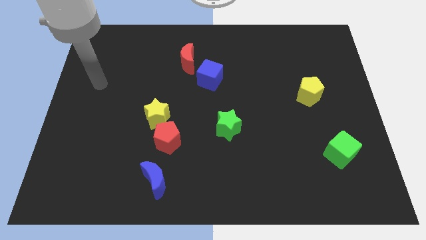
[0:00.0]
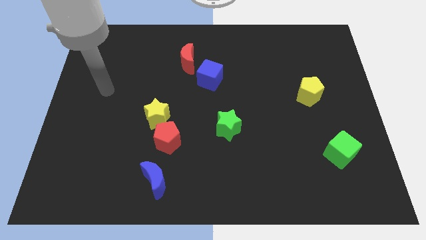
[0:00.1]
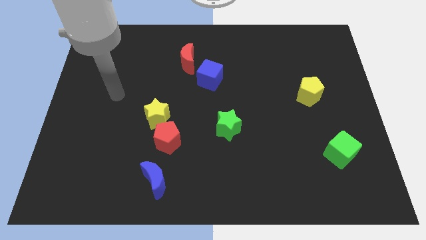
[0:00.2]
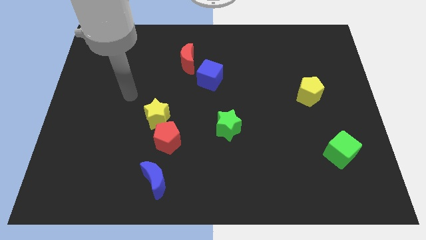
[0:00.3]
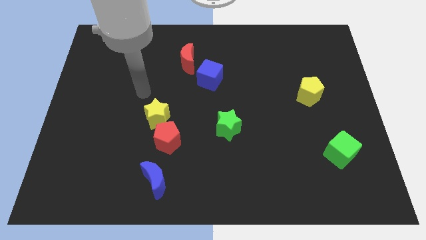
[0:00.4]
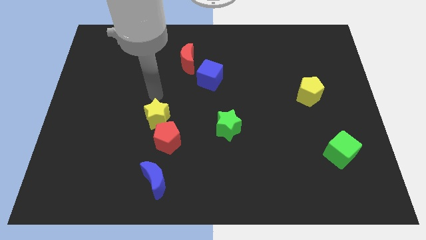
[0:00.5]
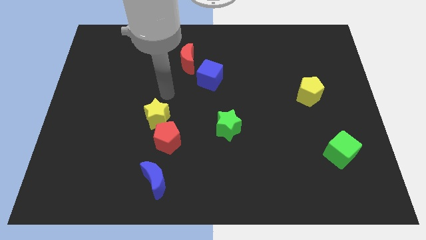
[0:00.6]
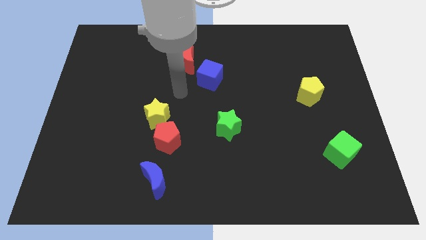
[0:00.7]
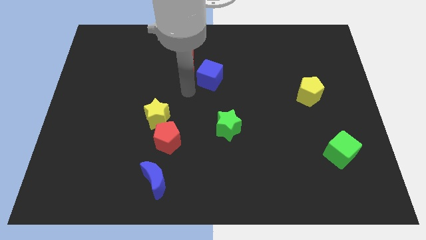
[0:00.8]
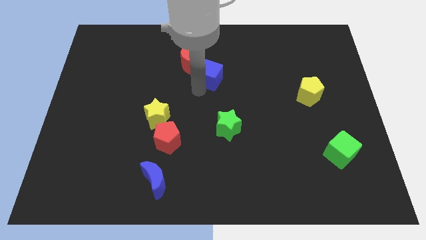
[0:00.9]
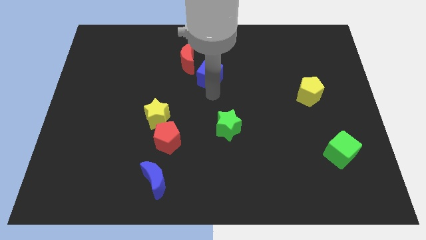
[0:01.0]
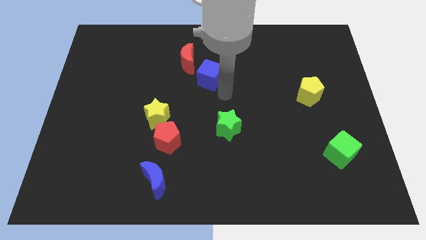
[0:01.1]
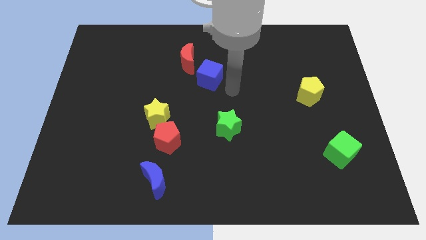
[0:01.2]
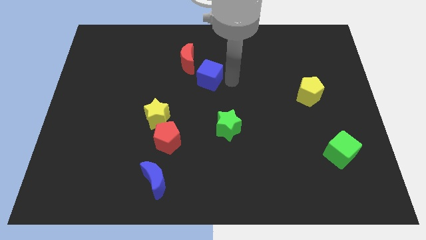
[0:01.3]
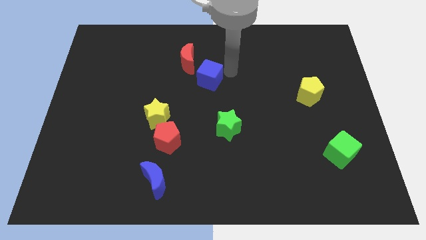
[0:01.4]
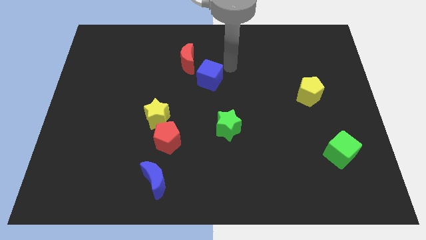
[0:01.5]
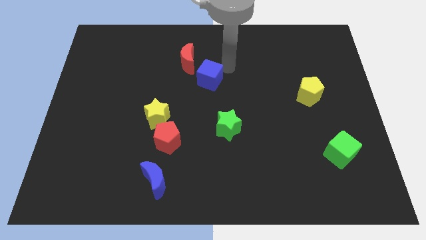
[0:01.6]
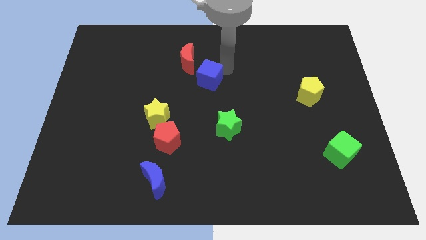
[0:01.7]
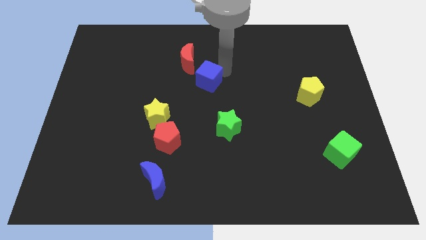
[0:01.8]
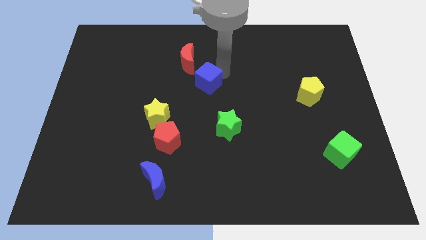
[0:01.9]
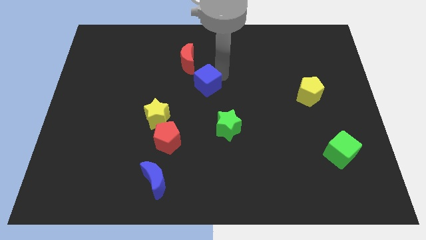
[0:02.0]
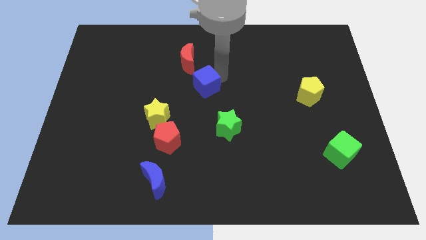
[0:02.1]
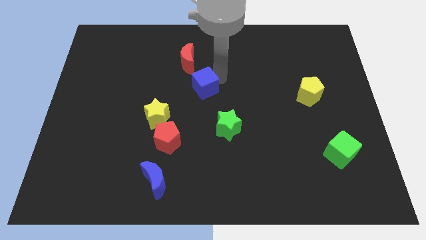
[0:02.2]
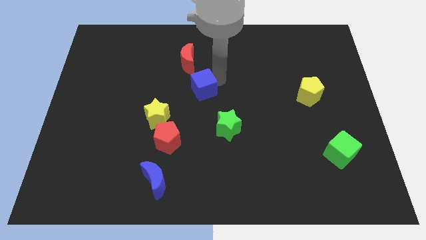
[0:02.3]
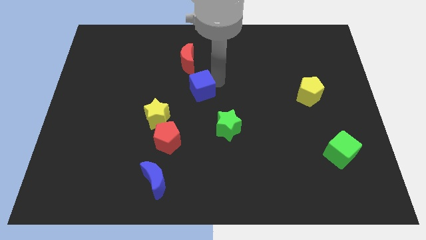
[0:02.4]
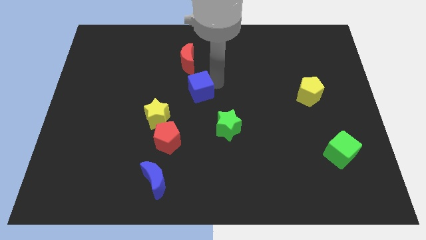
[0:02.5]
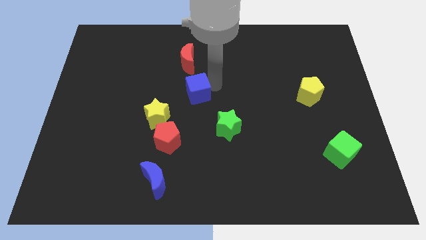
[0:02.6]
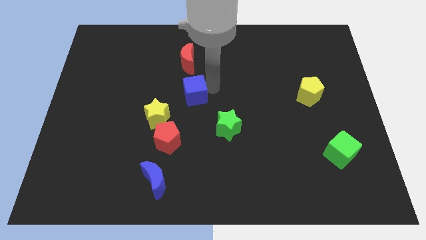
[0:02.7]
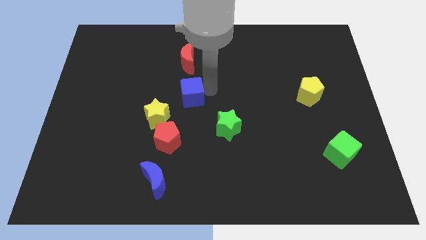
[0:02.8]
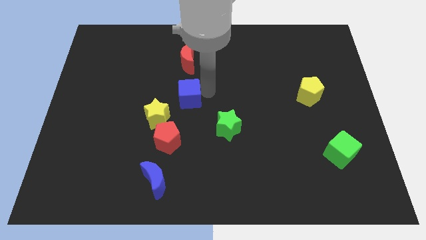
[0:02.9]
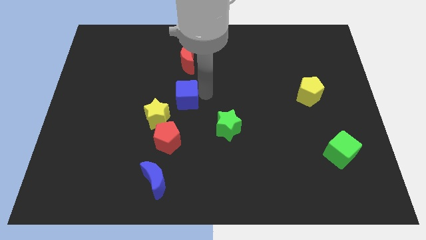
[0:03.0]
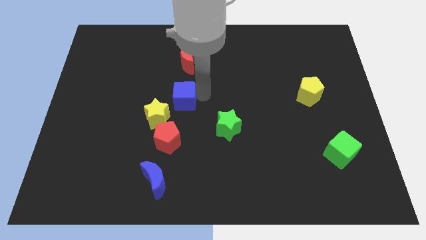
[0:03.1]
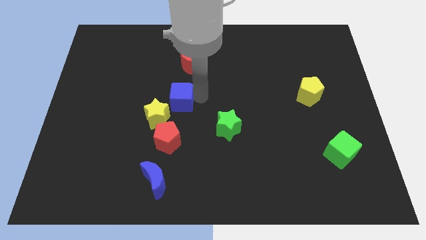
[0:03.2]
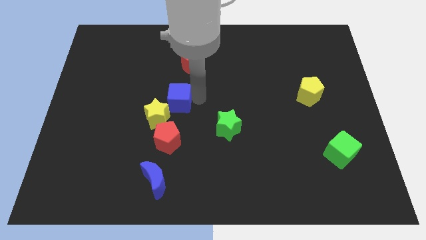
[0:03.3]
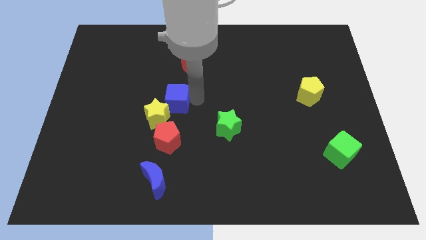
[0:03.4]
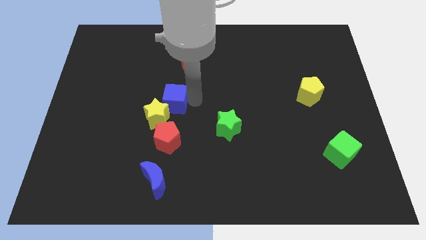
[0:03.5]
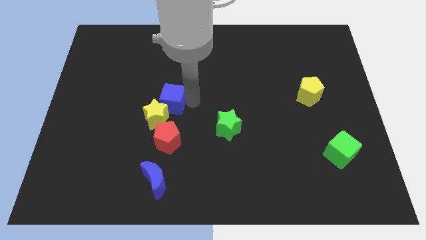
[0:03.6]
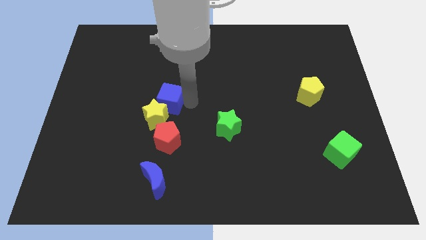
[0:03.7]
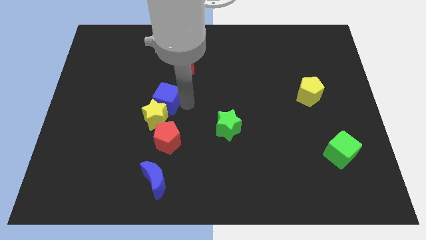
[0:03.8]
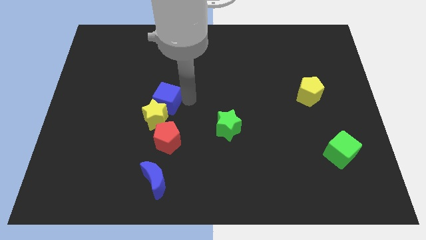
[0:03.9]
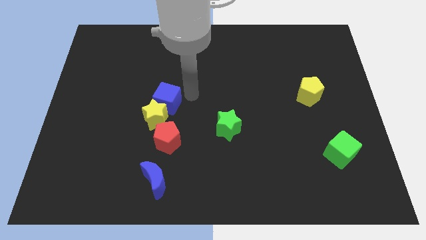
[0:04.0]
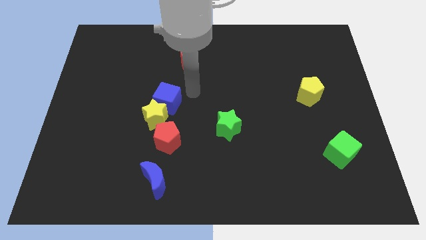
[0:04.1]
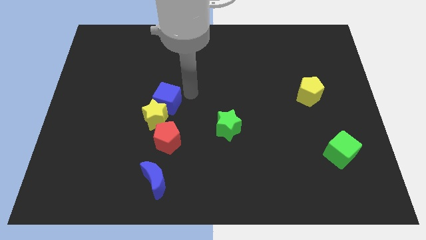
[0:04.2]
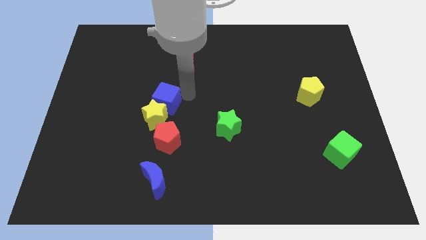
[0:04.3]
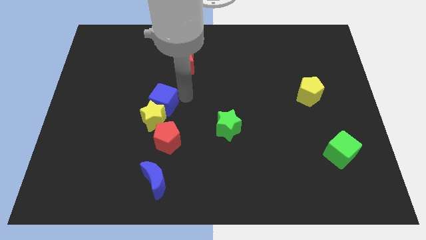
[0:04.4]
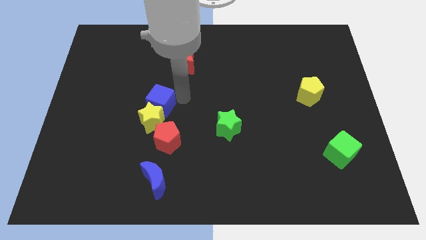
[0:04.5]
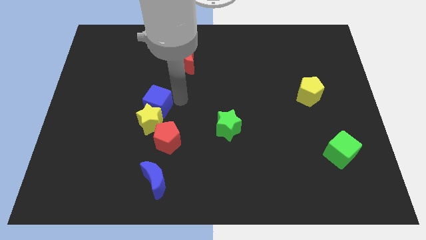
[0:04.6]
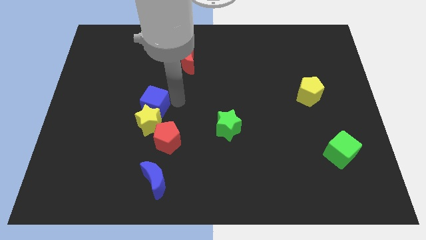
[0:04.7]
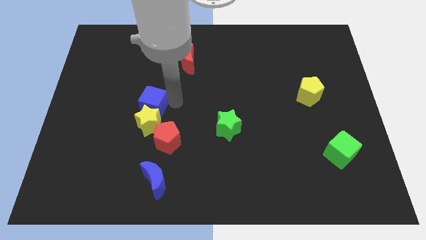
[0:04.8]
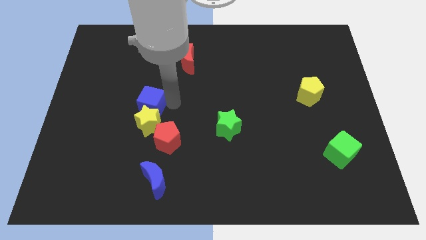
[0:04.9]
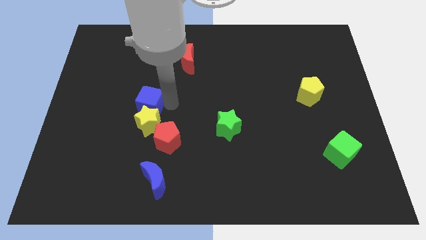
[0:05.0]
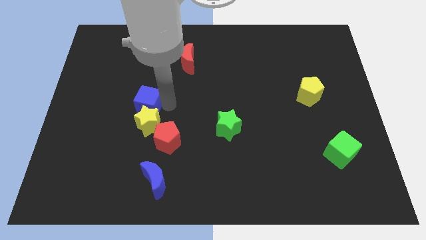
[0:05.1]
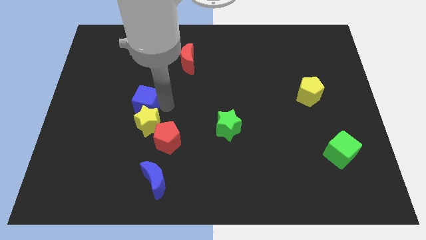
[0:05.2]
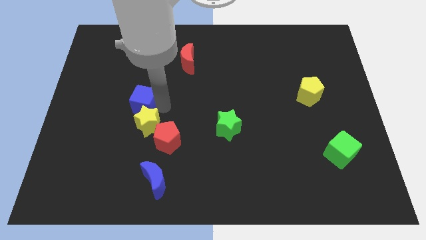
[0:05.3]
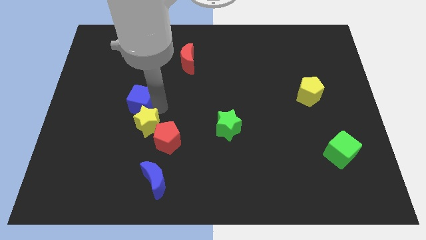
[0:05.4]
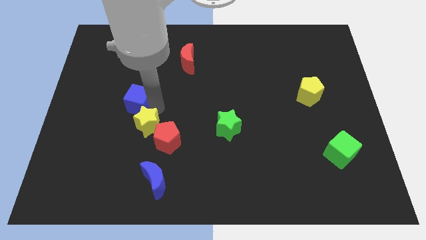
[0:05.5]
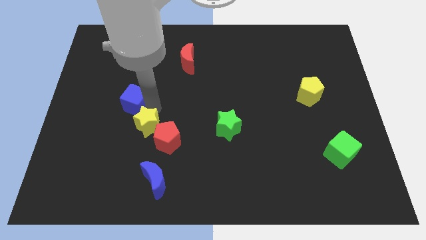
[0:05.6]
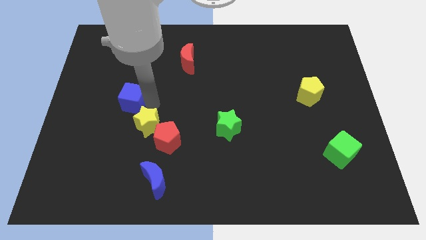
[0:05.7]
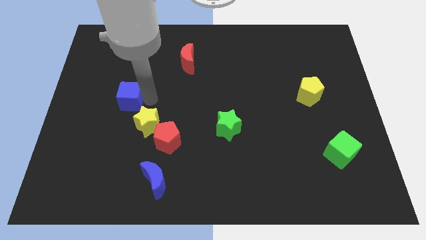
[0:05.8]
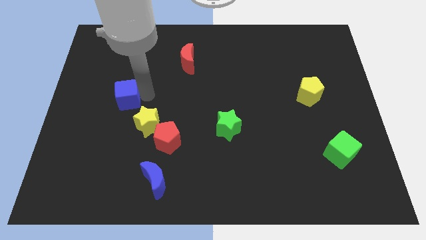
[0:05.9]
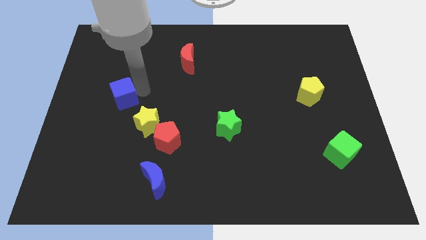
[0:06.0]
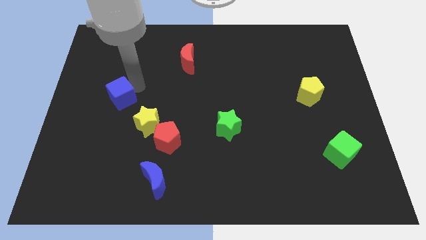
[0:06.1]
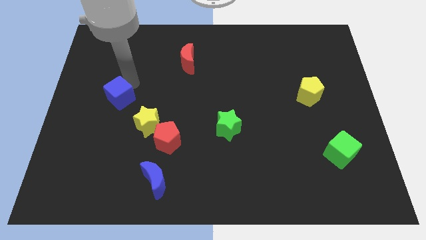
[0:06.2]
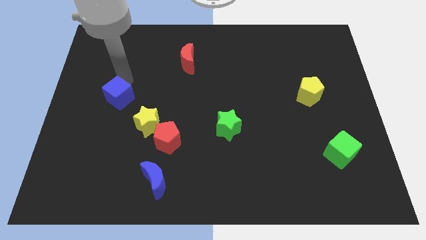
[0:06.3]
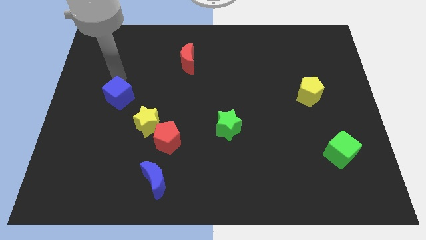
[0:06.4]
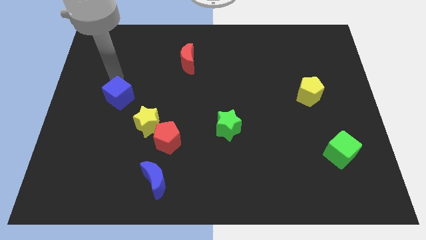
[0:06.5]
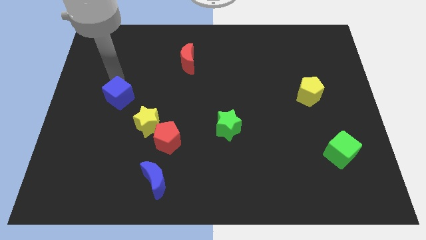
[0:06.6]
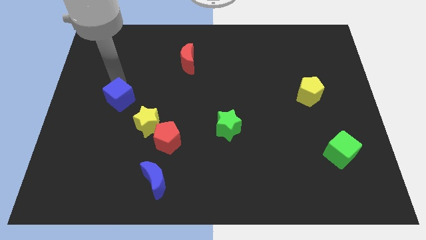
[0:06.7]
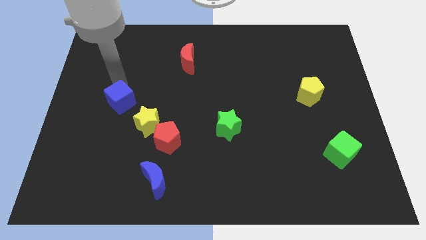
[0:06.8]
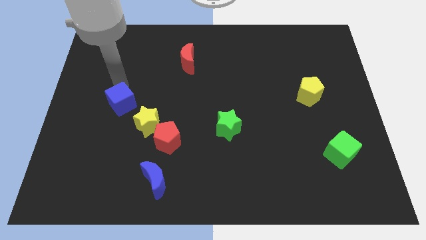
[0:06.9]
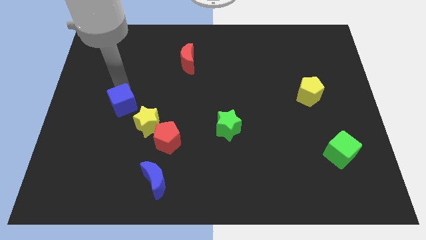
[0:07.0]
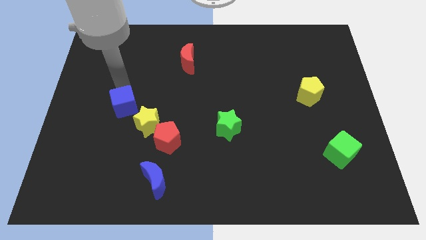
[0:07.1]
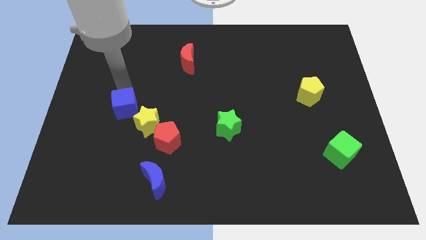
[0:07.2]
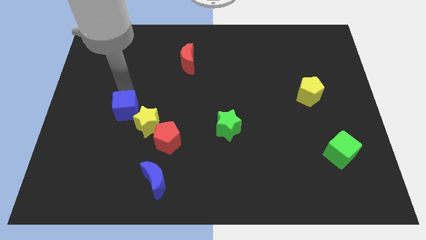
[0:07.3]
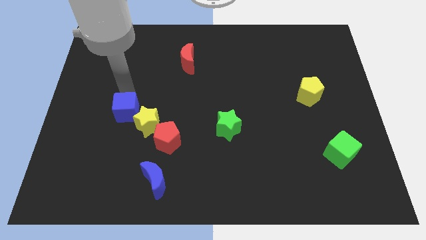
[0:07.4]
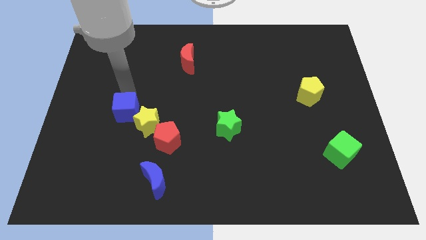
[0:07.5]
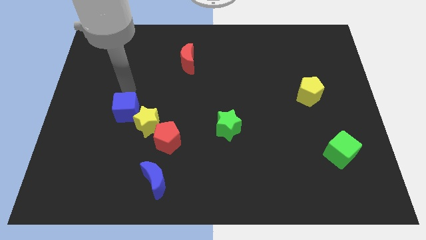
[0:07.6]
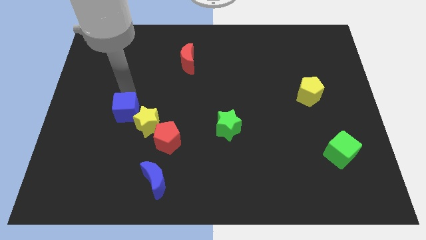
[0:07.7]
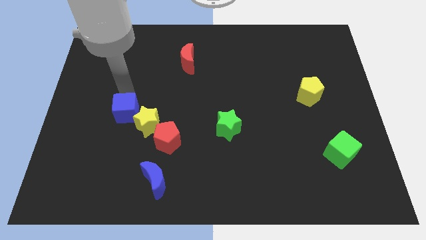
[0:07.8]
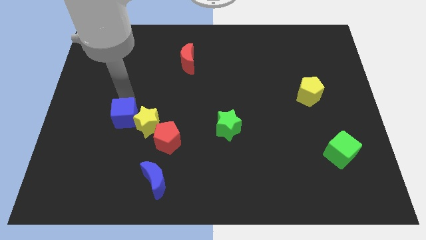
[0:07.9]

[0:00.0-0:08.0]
push the blue cube diagonally downwards and to the left
